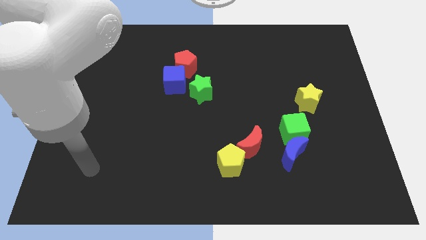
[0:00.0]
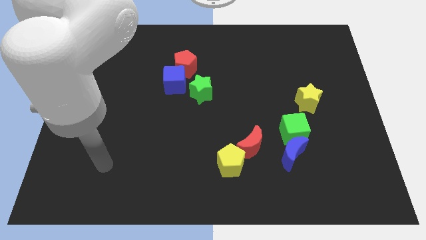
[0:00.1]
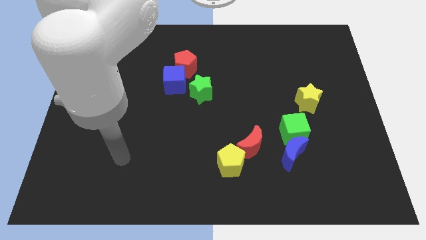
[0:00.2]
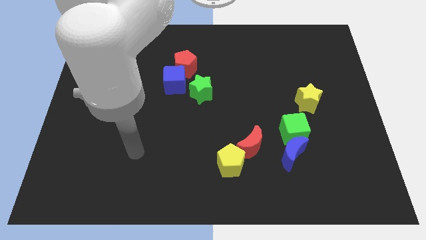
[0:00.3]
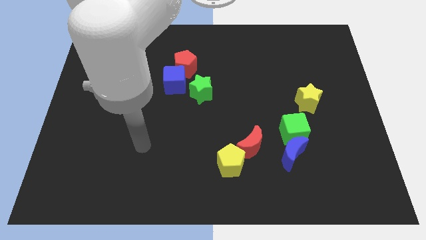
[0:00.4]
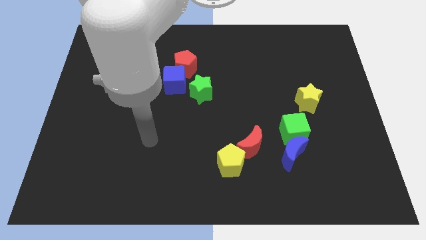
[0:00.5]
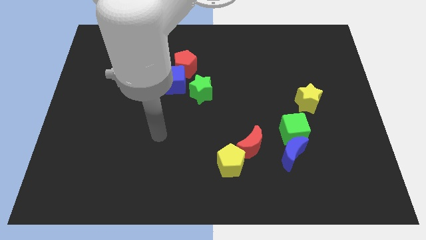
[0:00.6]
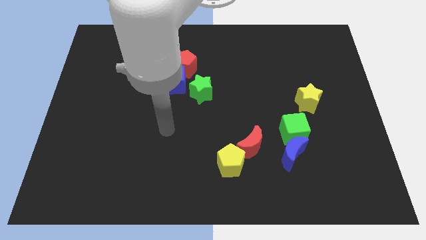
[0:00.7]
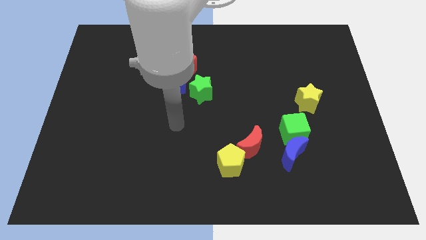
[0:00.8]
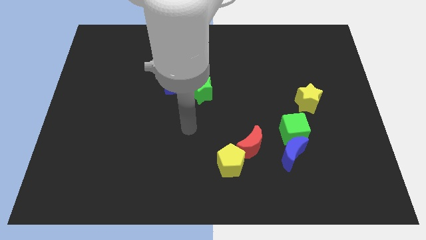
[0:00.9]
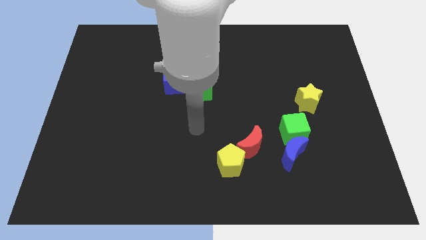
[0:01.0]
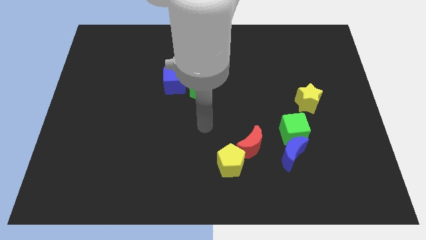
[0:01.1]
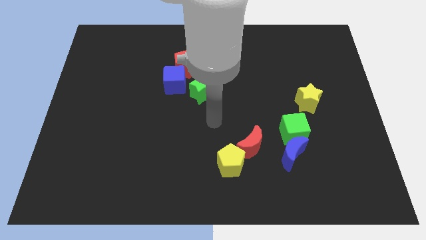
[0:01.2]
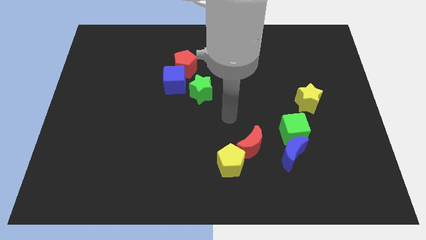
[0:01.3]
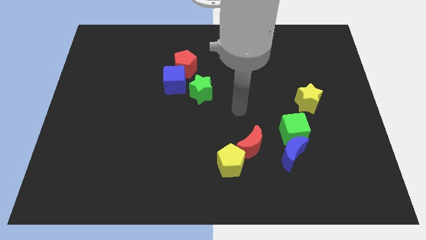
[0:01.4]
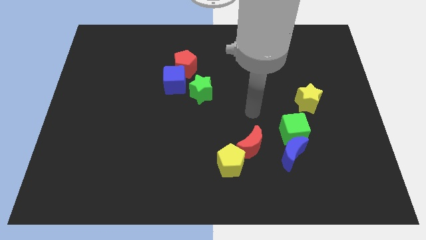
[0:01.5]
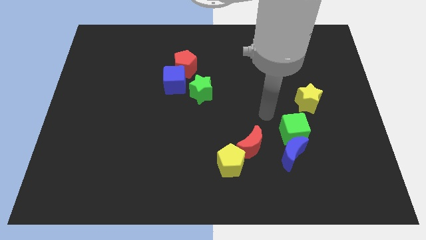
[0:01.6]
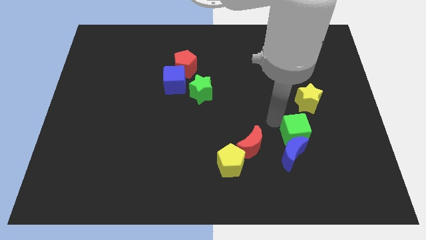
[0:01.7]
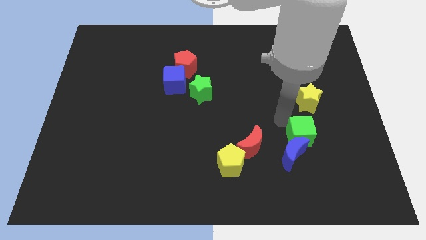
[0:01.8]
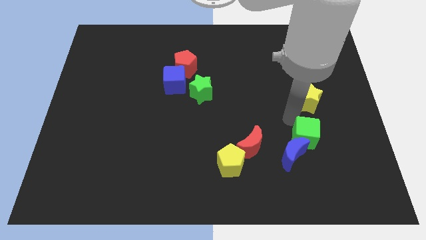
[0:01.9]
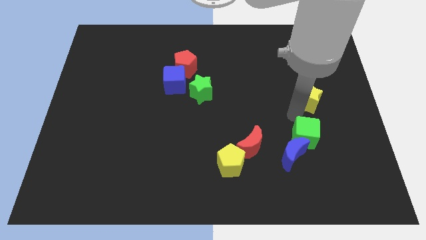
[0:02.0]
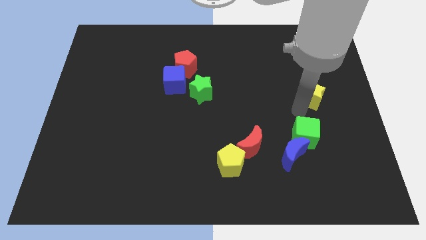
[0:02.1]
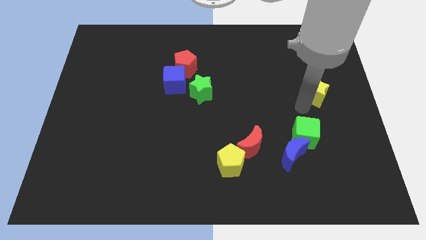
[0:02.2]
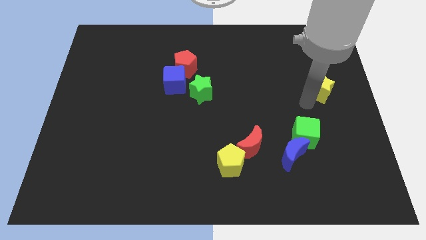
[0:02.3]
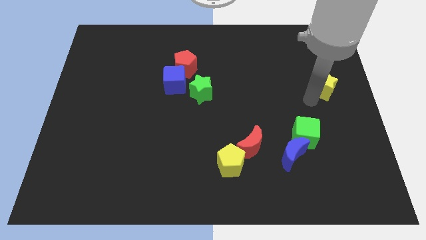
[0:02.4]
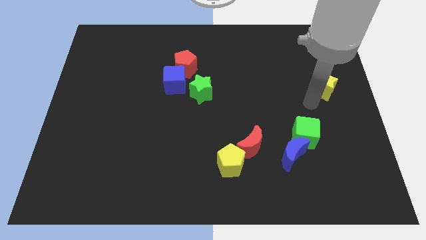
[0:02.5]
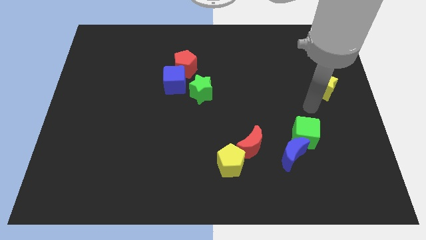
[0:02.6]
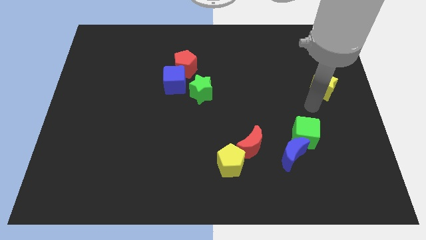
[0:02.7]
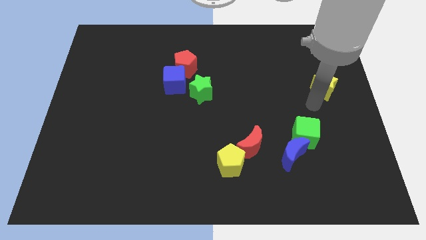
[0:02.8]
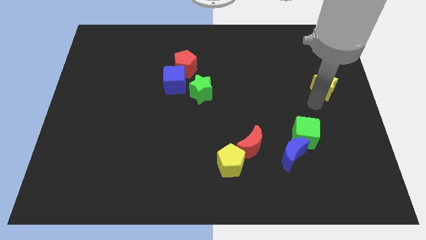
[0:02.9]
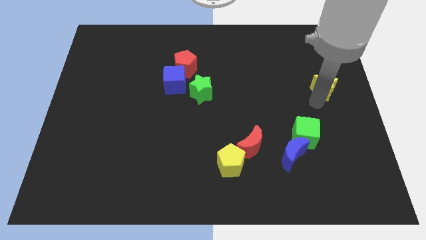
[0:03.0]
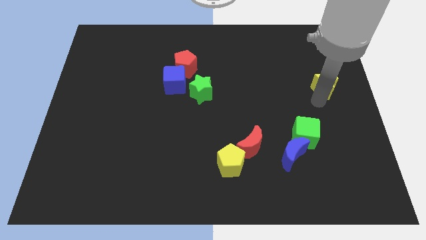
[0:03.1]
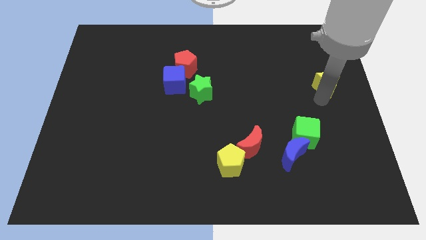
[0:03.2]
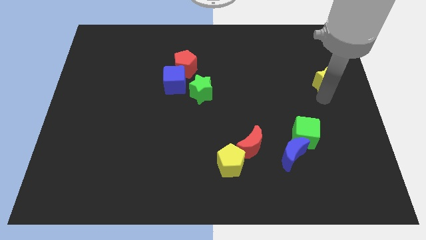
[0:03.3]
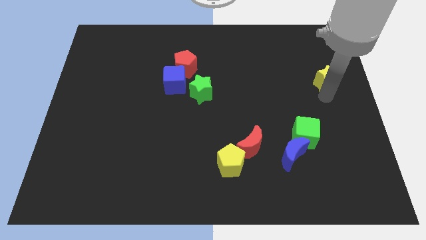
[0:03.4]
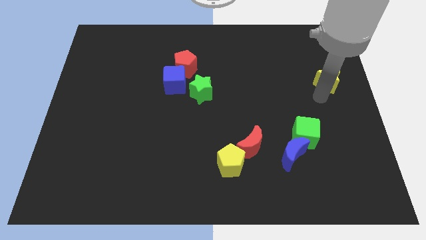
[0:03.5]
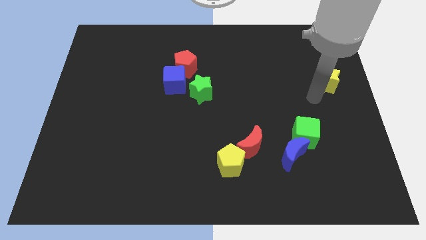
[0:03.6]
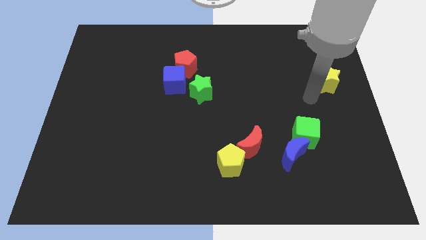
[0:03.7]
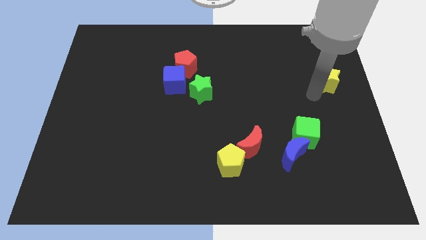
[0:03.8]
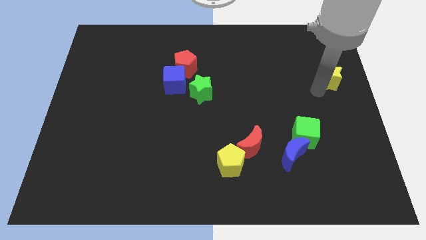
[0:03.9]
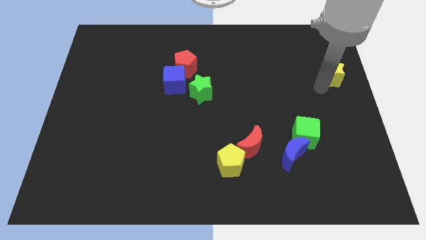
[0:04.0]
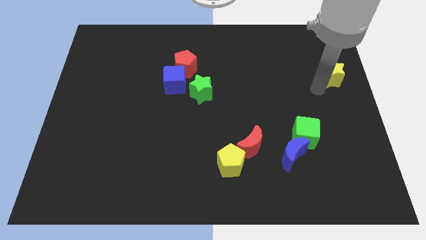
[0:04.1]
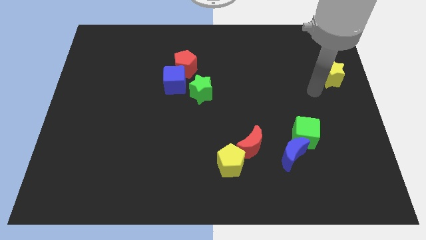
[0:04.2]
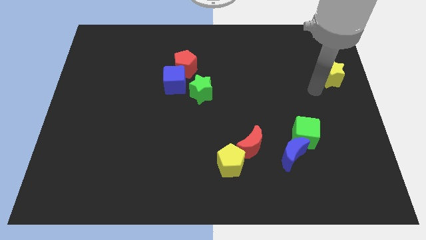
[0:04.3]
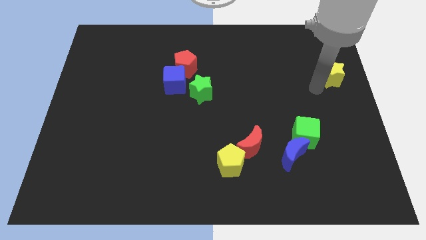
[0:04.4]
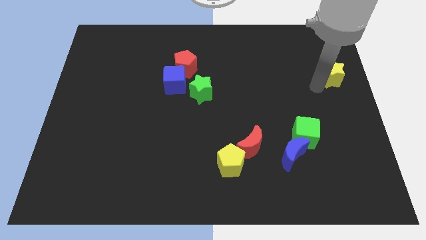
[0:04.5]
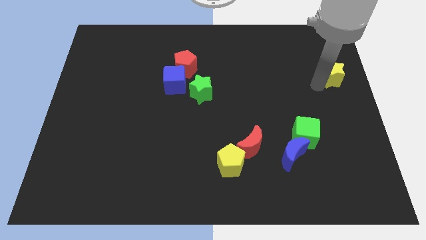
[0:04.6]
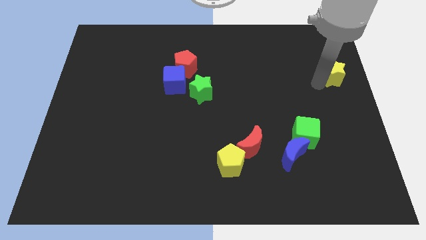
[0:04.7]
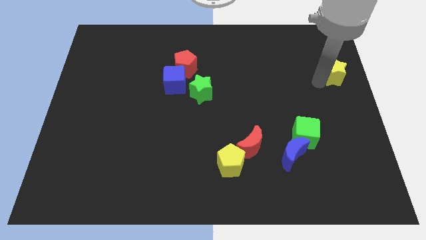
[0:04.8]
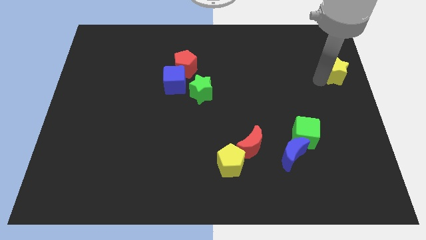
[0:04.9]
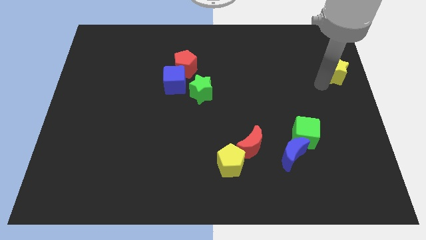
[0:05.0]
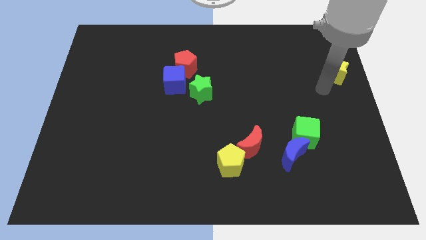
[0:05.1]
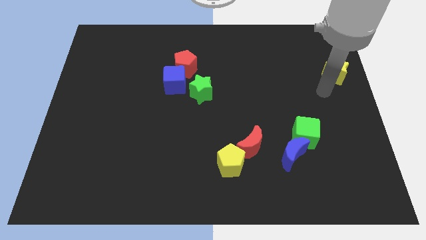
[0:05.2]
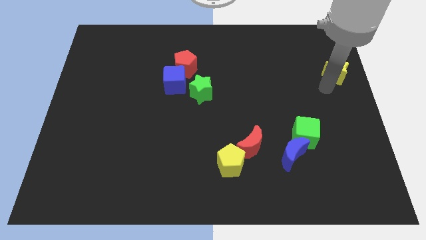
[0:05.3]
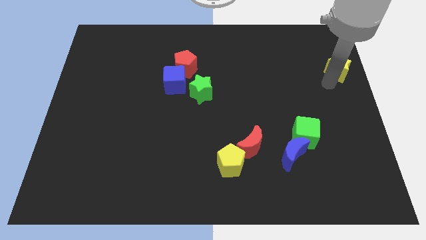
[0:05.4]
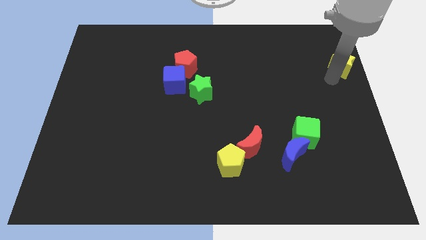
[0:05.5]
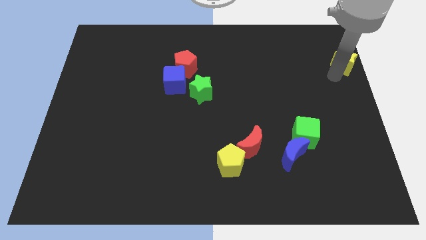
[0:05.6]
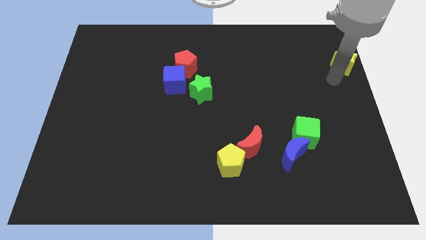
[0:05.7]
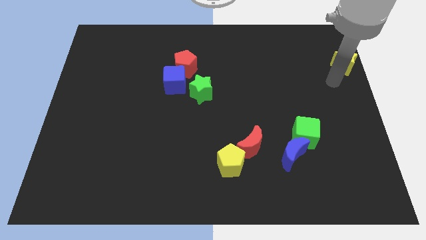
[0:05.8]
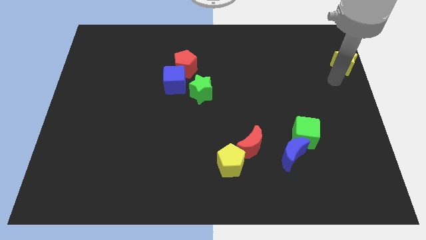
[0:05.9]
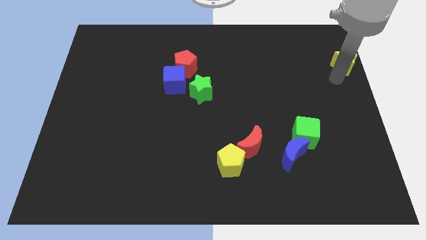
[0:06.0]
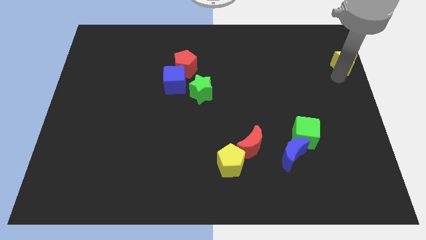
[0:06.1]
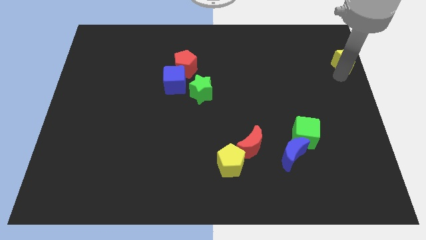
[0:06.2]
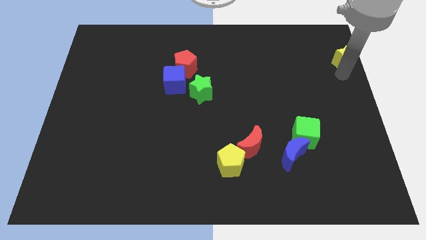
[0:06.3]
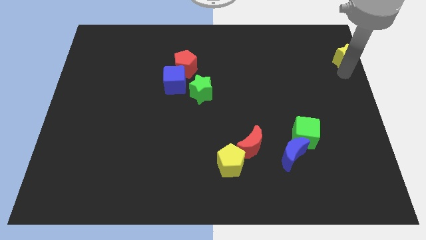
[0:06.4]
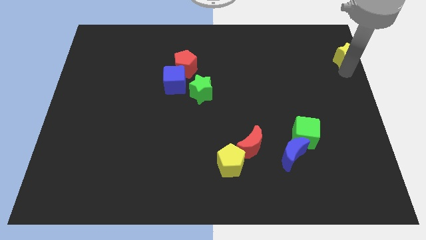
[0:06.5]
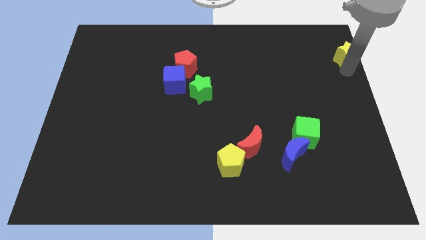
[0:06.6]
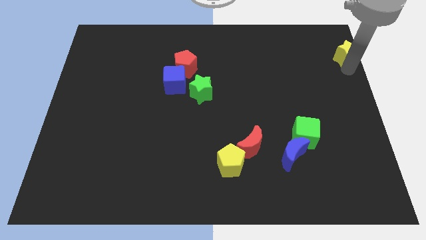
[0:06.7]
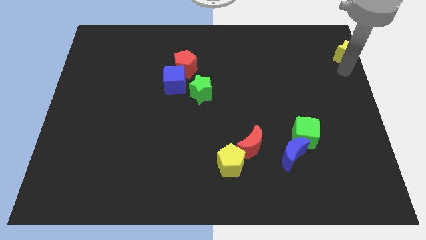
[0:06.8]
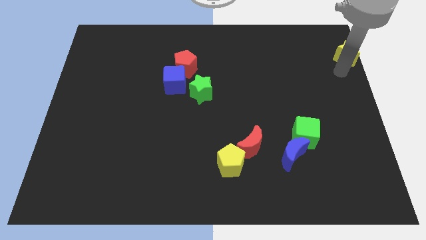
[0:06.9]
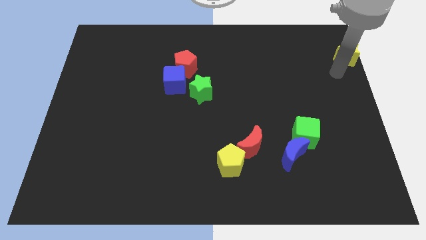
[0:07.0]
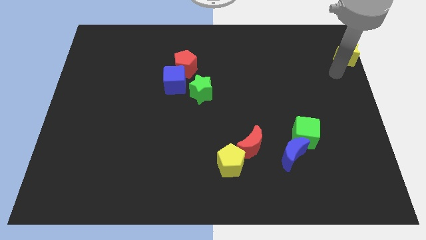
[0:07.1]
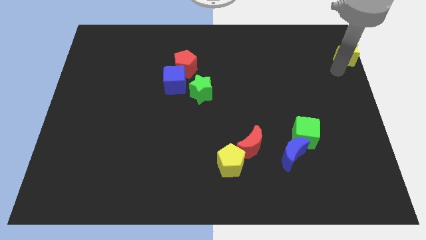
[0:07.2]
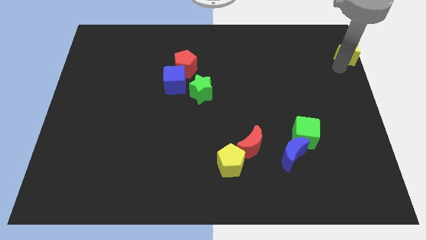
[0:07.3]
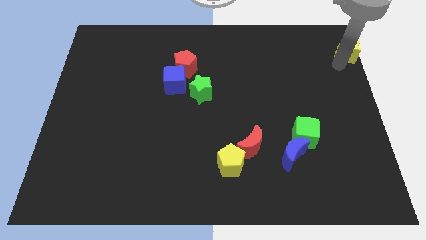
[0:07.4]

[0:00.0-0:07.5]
move the yellow star to the top right corner

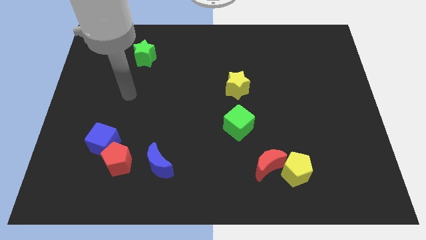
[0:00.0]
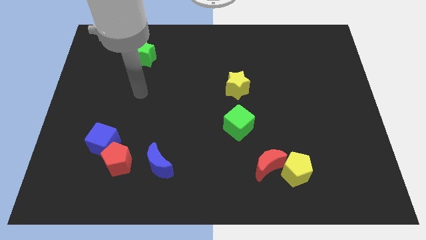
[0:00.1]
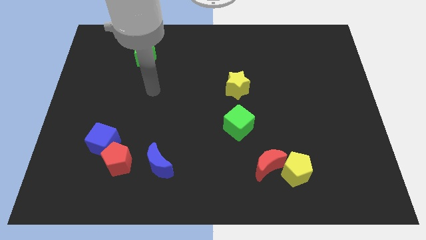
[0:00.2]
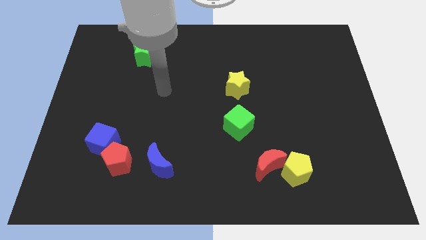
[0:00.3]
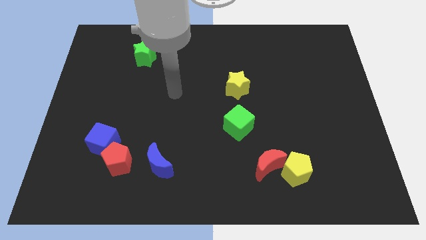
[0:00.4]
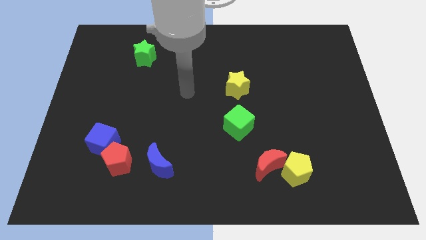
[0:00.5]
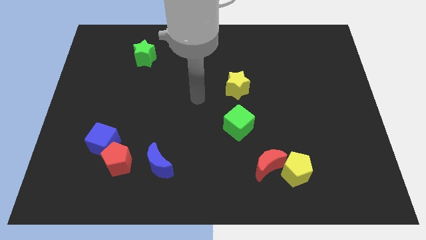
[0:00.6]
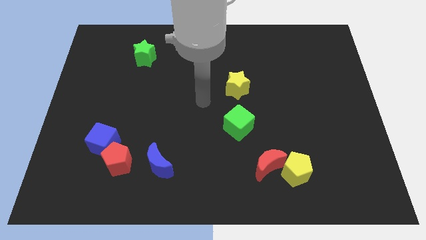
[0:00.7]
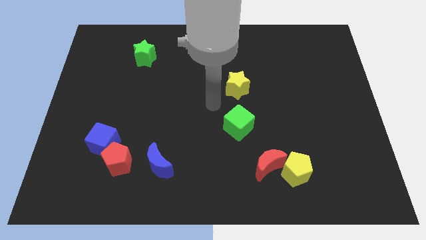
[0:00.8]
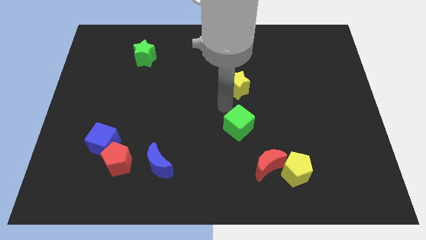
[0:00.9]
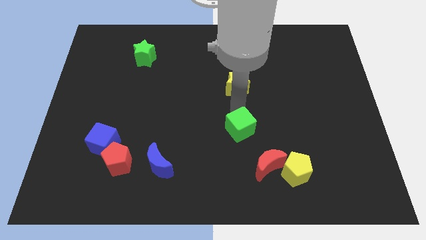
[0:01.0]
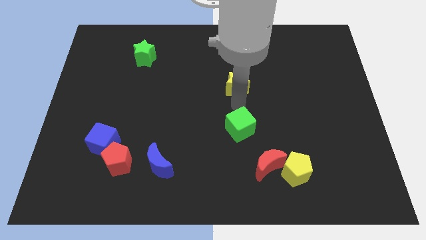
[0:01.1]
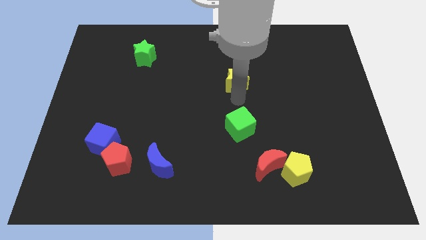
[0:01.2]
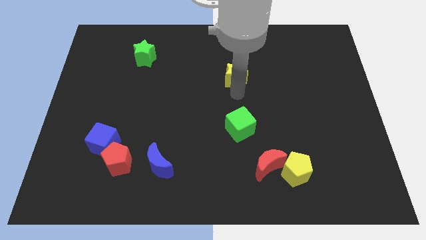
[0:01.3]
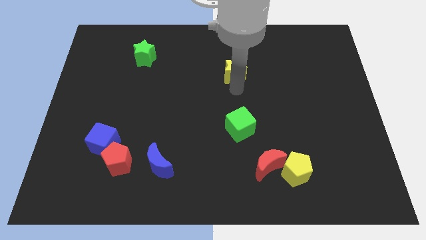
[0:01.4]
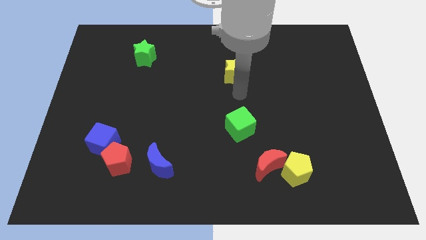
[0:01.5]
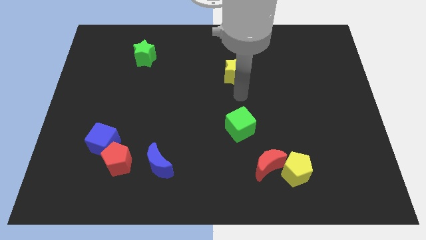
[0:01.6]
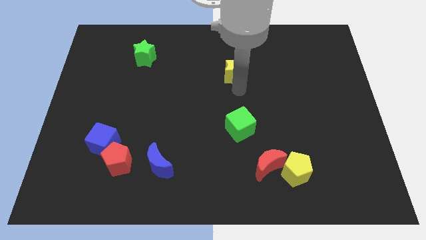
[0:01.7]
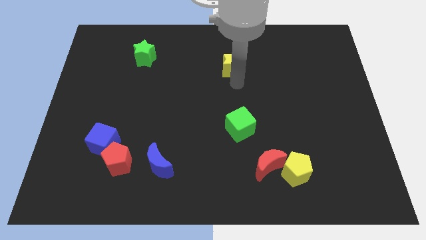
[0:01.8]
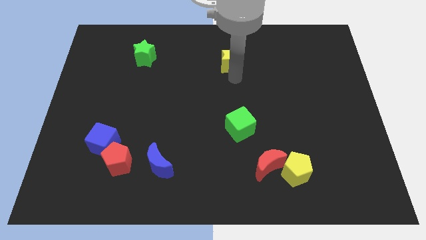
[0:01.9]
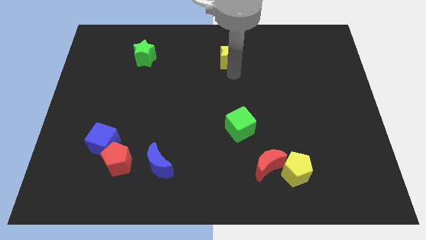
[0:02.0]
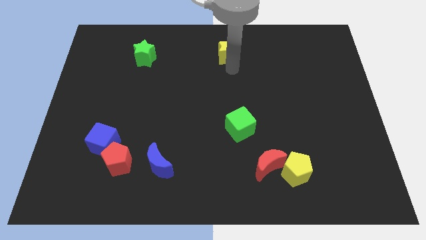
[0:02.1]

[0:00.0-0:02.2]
push the yellow star to the top
